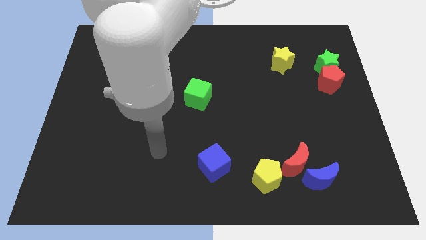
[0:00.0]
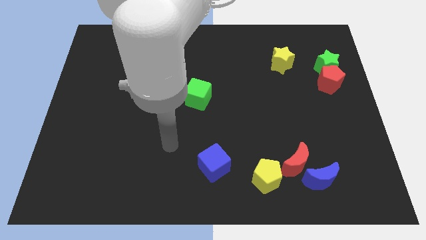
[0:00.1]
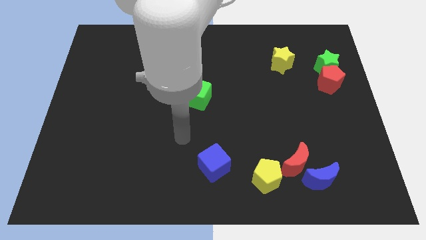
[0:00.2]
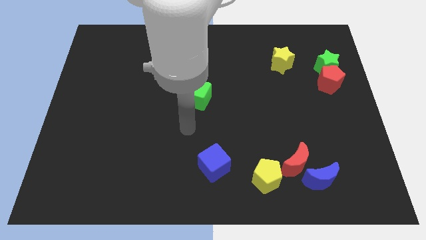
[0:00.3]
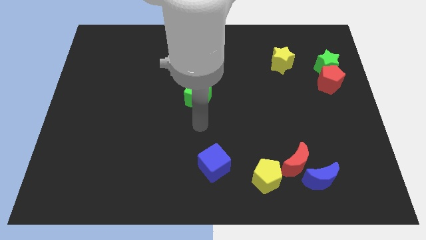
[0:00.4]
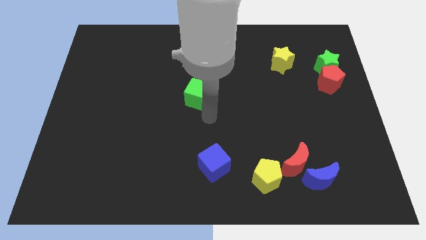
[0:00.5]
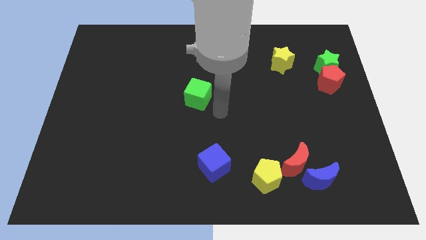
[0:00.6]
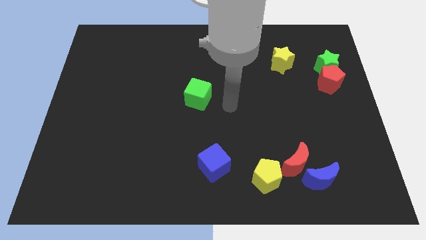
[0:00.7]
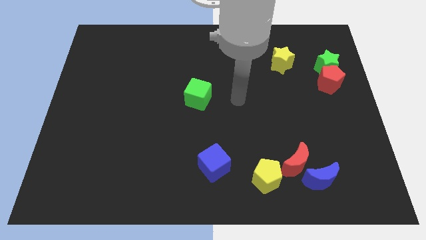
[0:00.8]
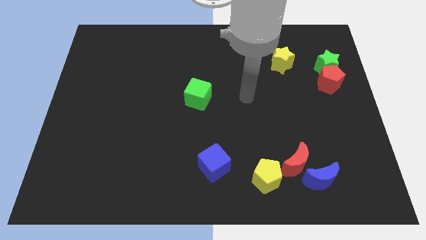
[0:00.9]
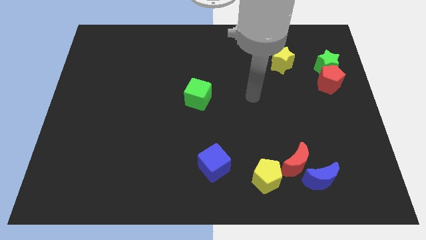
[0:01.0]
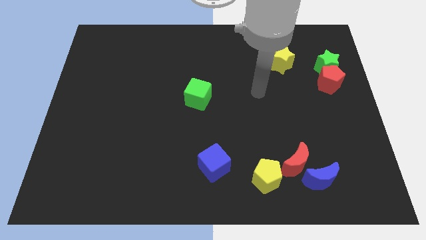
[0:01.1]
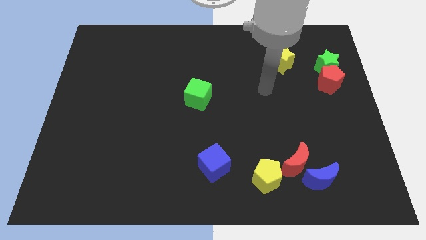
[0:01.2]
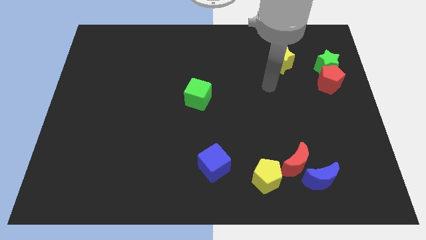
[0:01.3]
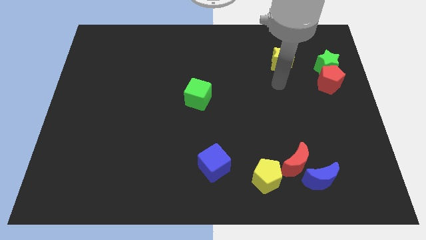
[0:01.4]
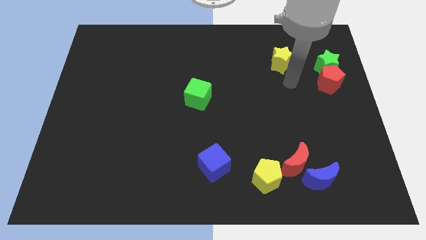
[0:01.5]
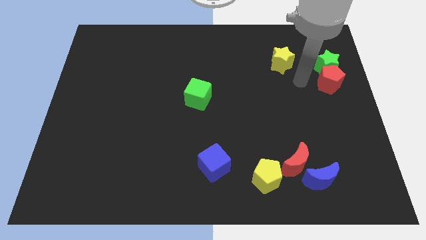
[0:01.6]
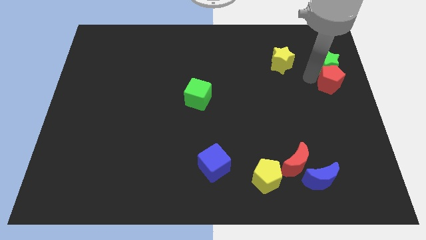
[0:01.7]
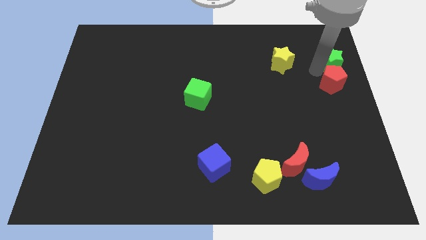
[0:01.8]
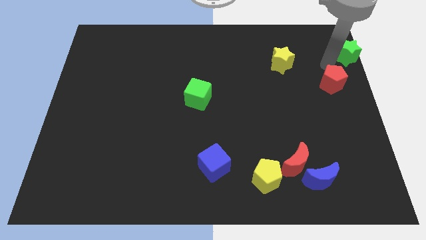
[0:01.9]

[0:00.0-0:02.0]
move the red pentagon away from the green star

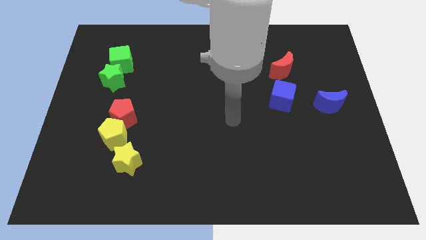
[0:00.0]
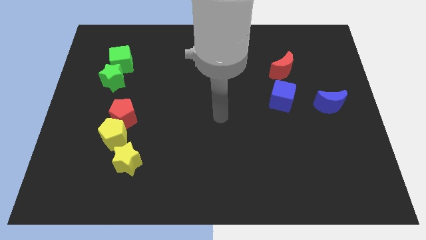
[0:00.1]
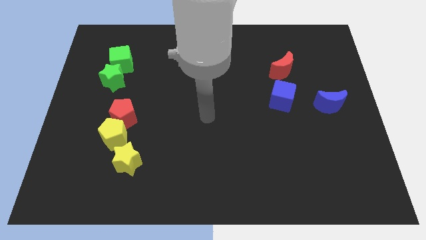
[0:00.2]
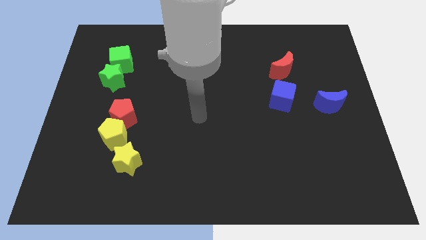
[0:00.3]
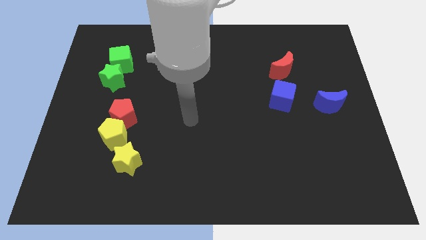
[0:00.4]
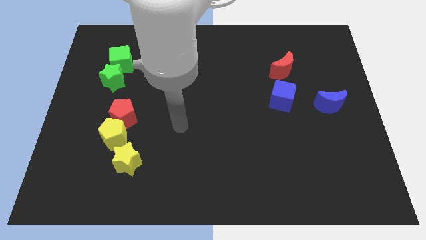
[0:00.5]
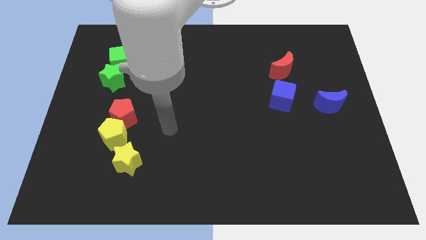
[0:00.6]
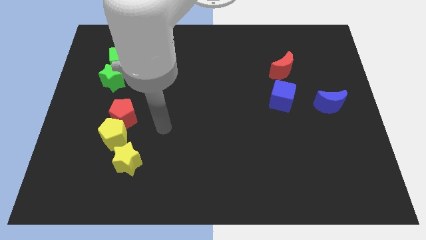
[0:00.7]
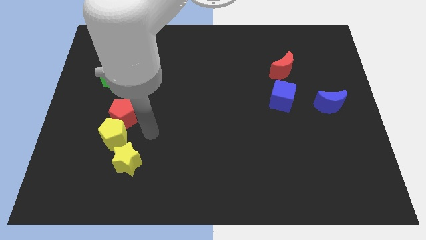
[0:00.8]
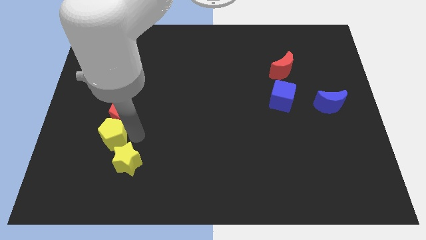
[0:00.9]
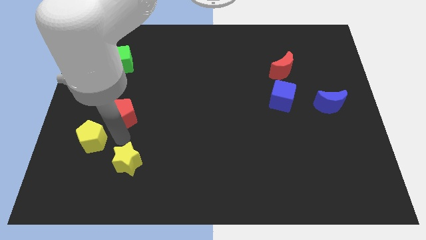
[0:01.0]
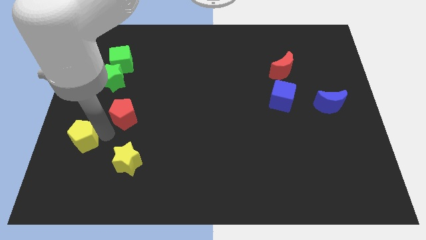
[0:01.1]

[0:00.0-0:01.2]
separate the red pentagon from the yellow pentagon

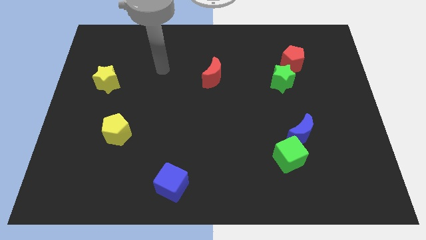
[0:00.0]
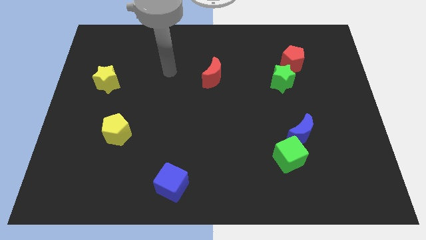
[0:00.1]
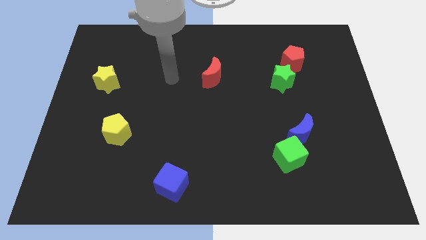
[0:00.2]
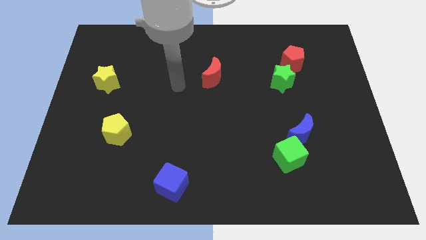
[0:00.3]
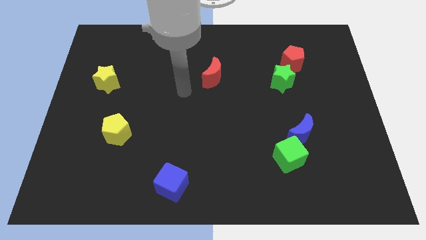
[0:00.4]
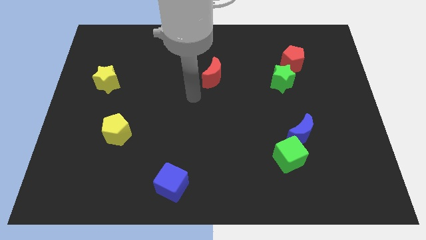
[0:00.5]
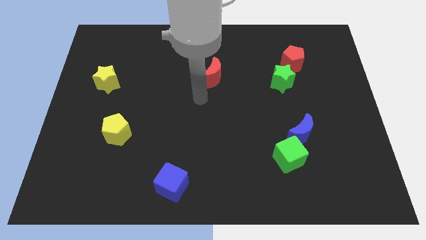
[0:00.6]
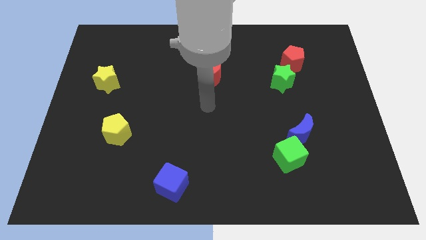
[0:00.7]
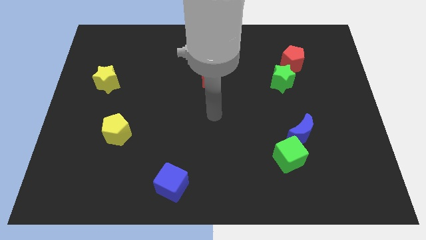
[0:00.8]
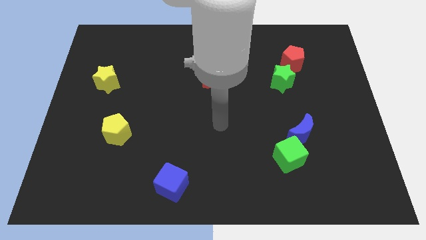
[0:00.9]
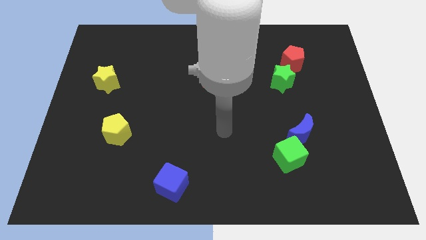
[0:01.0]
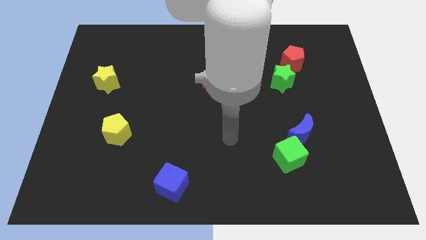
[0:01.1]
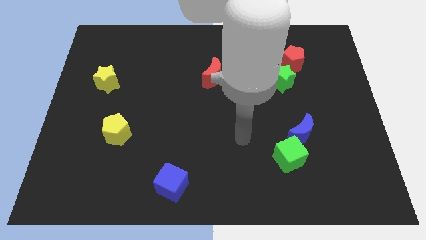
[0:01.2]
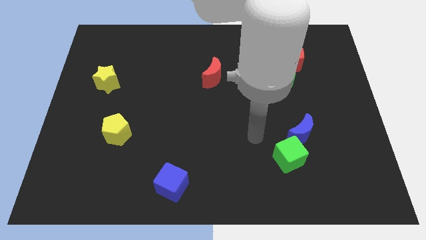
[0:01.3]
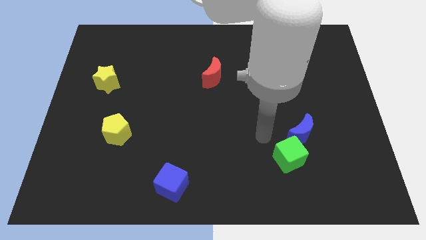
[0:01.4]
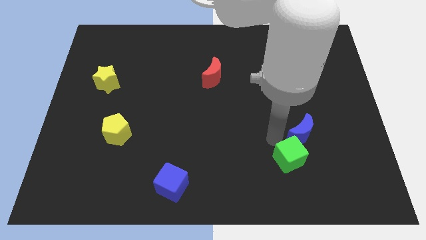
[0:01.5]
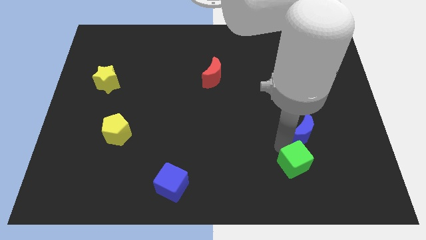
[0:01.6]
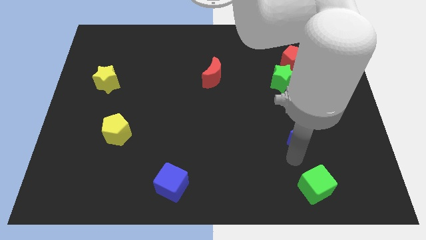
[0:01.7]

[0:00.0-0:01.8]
separate the blue moon from the green cube

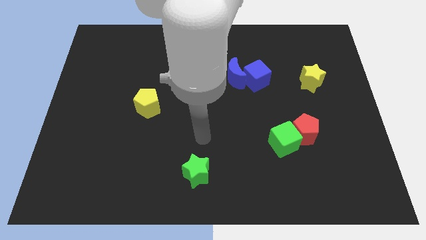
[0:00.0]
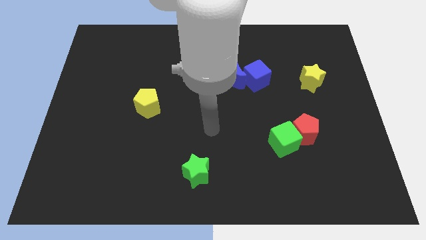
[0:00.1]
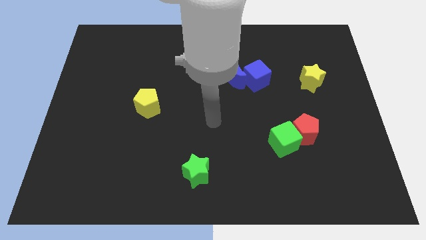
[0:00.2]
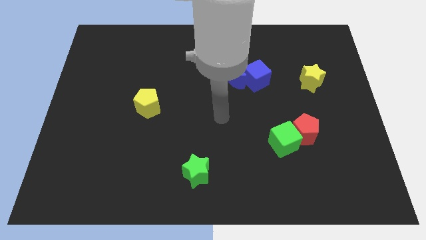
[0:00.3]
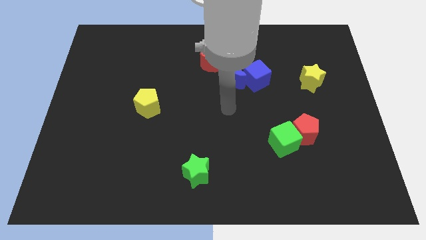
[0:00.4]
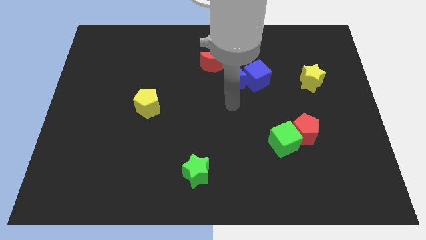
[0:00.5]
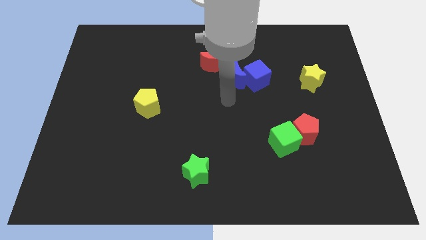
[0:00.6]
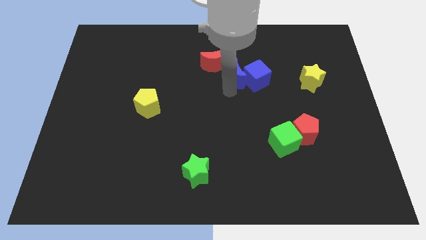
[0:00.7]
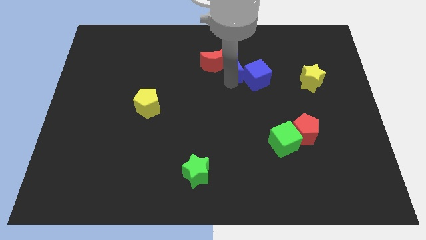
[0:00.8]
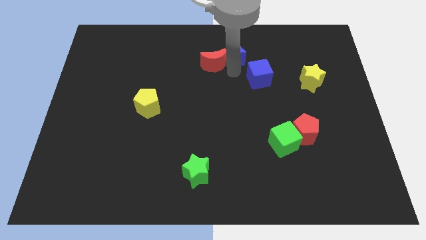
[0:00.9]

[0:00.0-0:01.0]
pull the blue cube apart from the blue moon

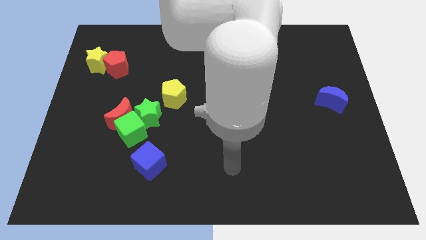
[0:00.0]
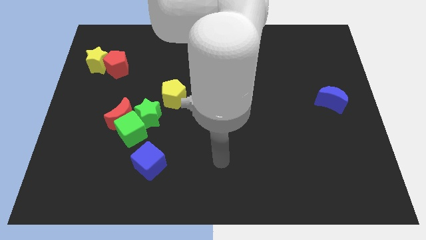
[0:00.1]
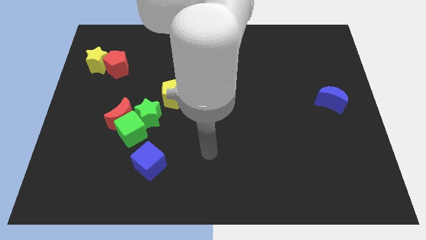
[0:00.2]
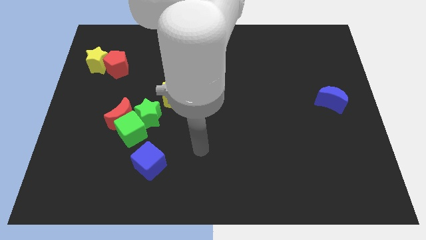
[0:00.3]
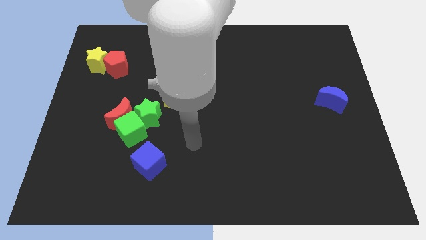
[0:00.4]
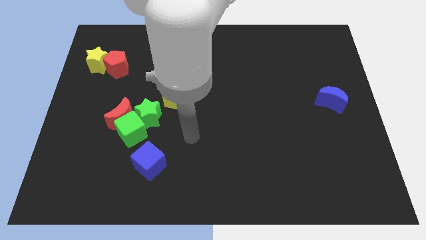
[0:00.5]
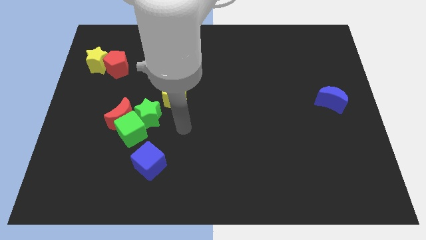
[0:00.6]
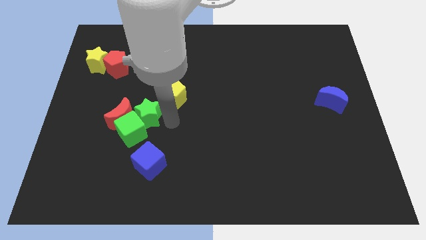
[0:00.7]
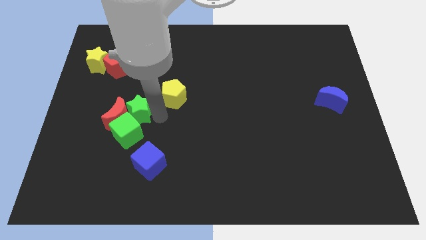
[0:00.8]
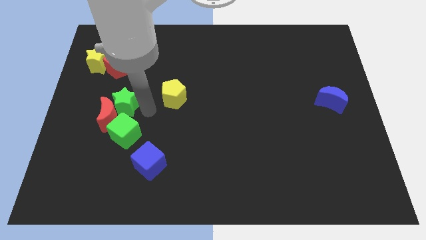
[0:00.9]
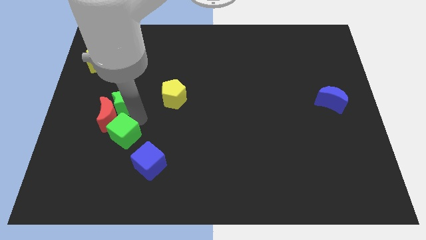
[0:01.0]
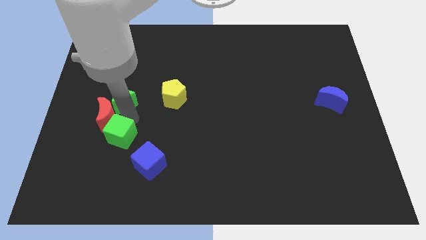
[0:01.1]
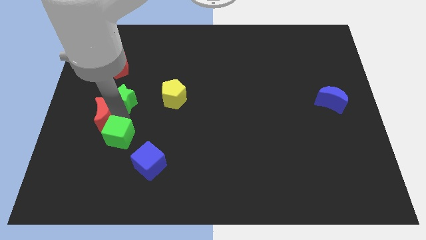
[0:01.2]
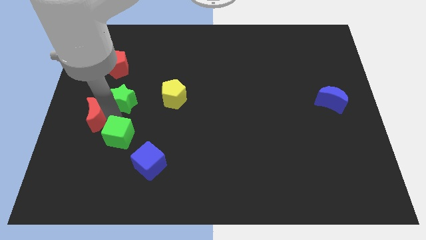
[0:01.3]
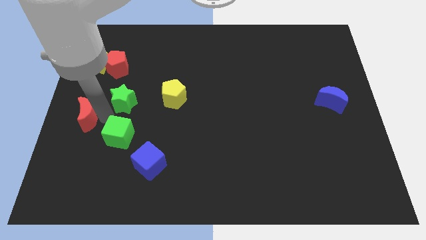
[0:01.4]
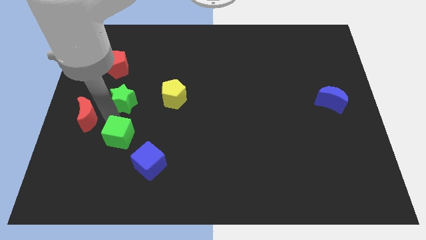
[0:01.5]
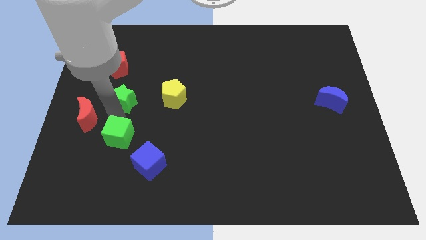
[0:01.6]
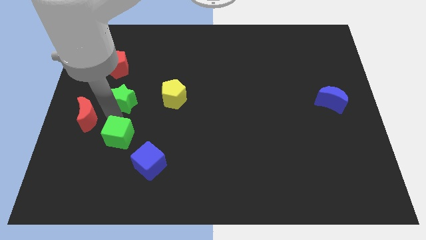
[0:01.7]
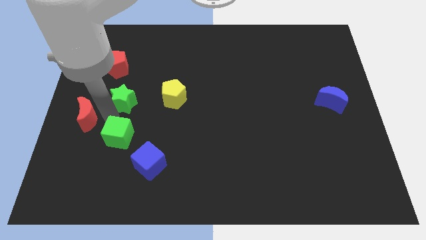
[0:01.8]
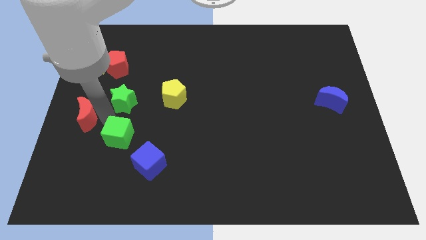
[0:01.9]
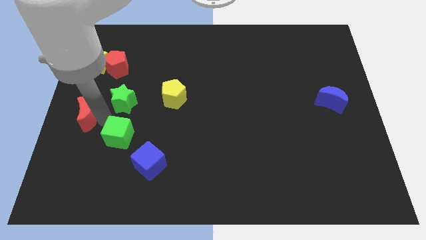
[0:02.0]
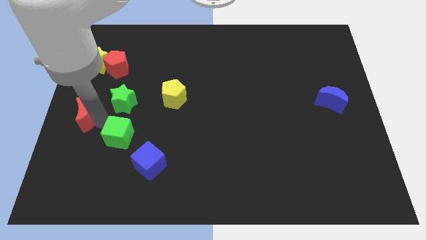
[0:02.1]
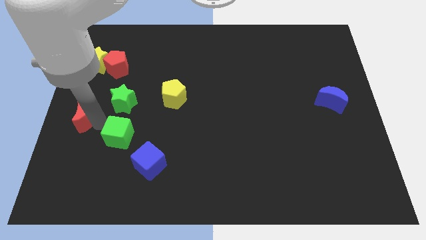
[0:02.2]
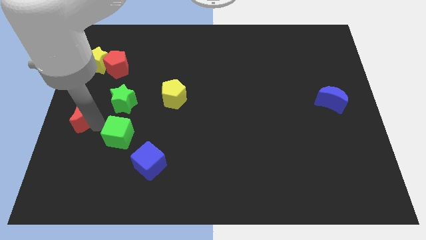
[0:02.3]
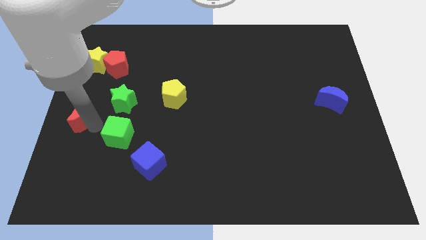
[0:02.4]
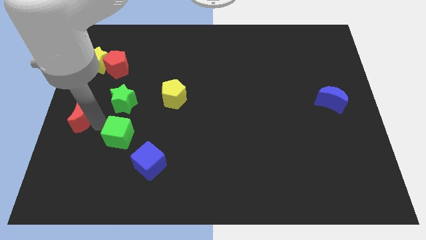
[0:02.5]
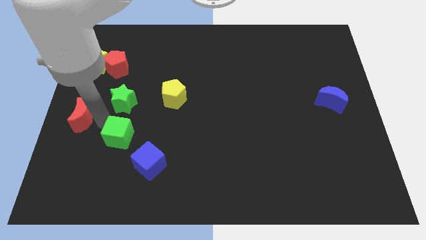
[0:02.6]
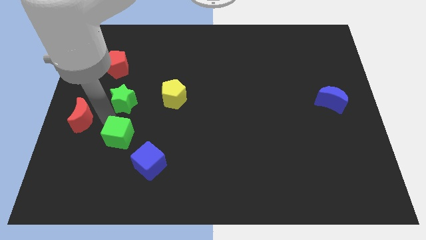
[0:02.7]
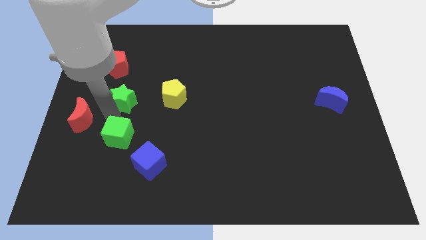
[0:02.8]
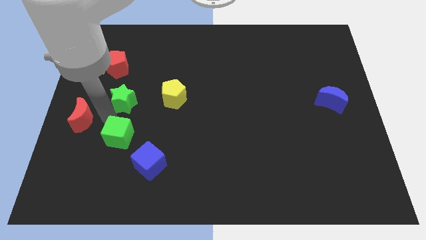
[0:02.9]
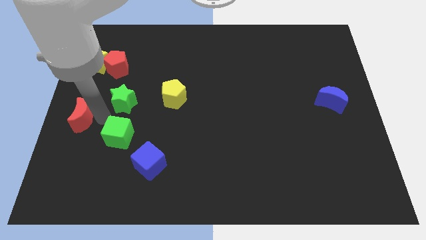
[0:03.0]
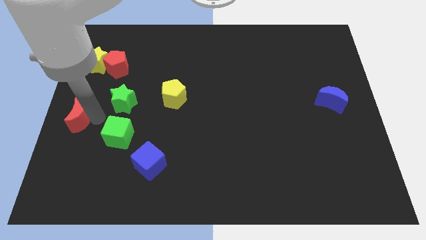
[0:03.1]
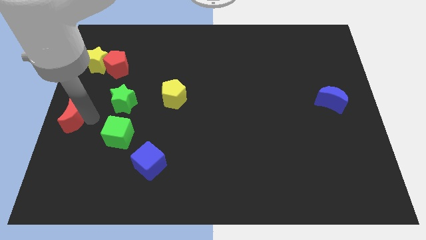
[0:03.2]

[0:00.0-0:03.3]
separate the red moon from the green cube and green star
